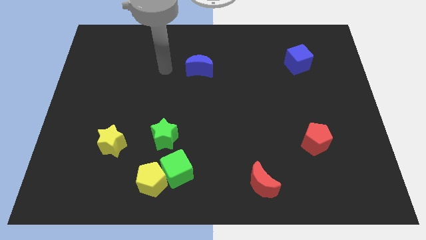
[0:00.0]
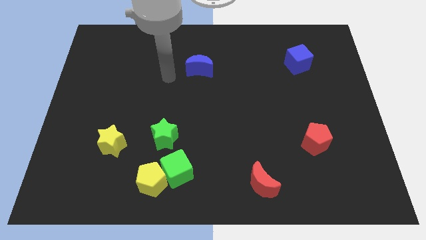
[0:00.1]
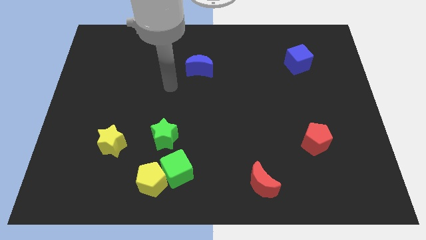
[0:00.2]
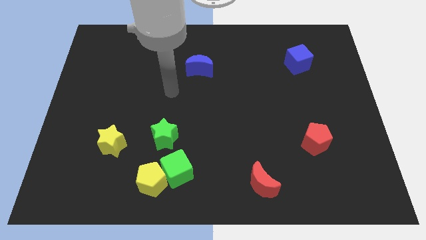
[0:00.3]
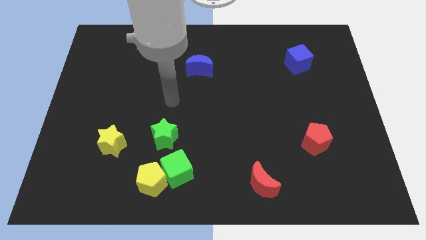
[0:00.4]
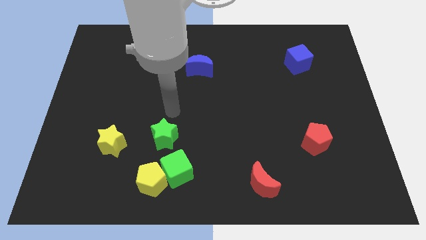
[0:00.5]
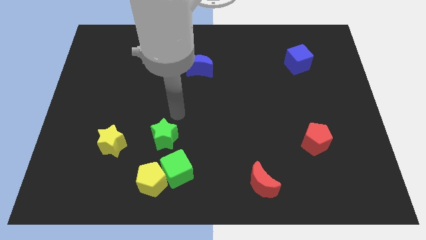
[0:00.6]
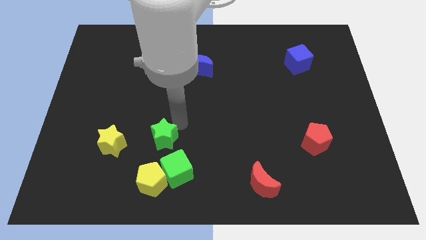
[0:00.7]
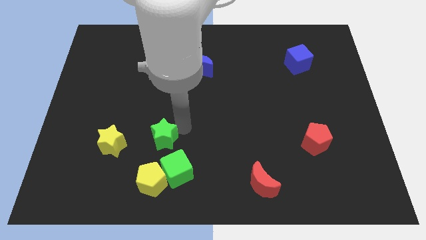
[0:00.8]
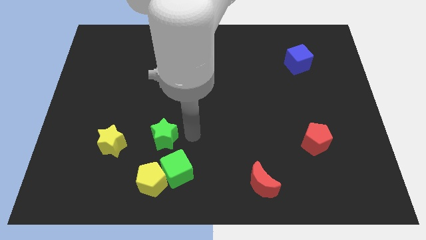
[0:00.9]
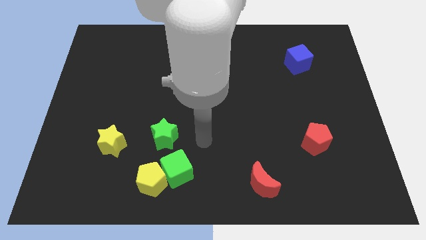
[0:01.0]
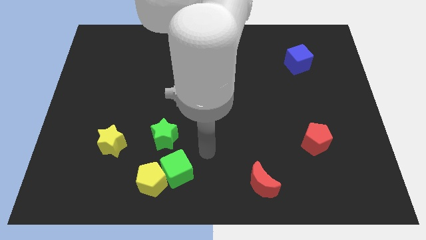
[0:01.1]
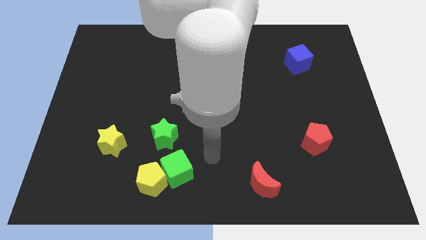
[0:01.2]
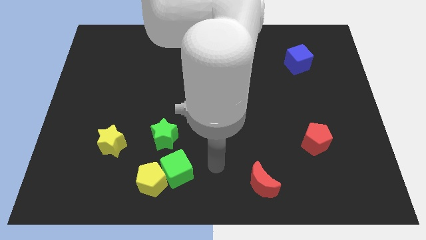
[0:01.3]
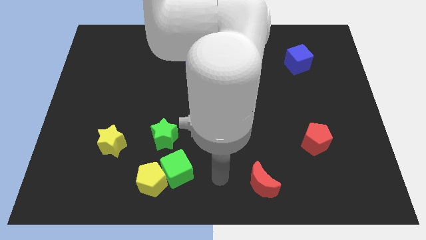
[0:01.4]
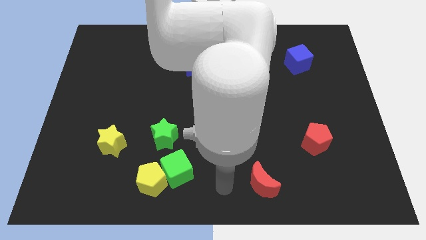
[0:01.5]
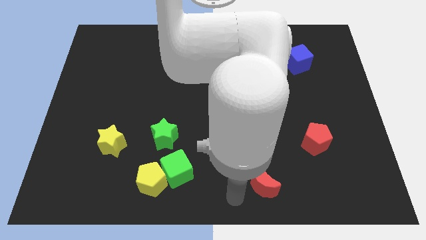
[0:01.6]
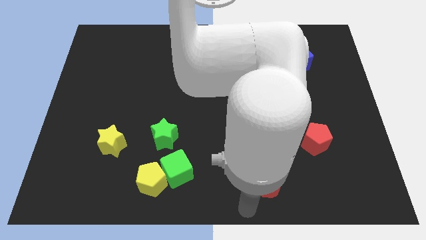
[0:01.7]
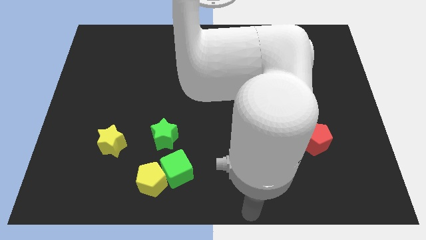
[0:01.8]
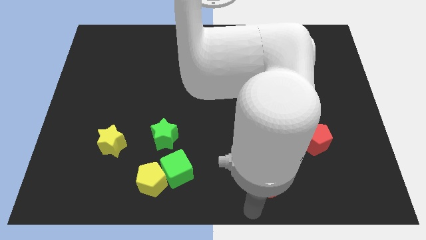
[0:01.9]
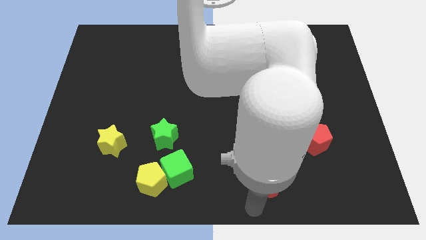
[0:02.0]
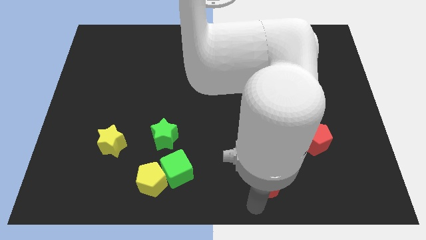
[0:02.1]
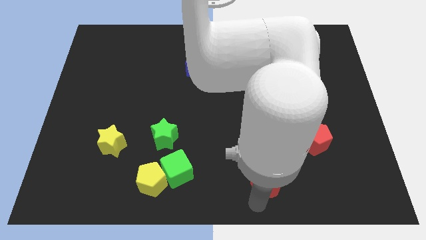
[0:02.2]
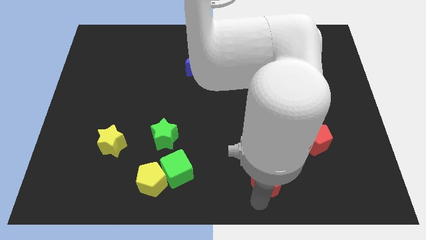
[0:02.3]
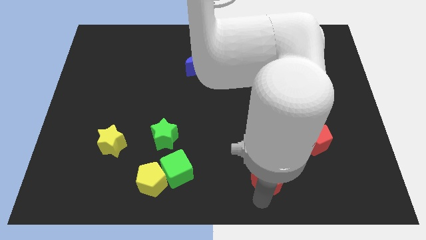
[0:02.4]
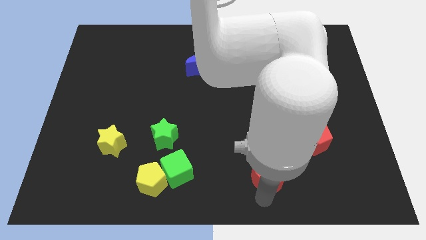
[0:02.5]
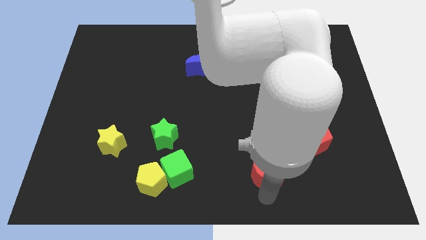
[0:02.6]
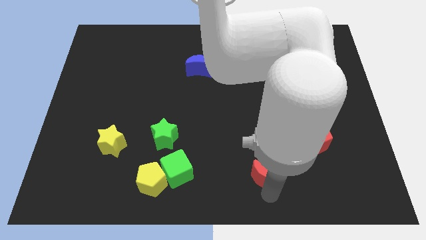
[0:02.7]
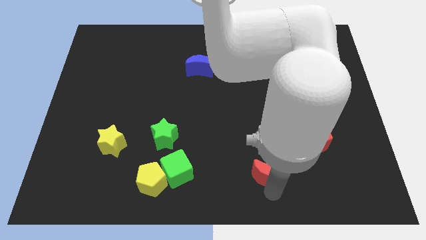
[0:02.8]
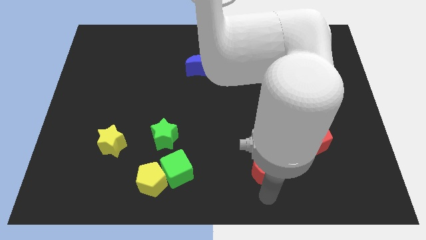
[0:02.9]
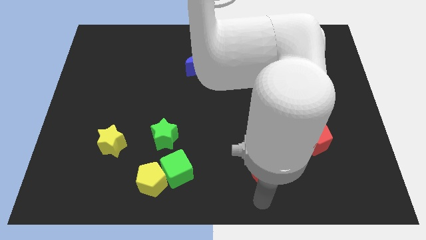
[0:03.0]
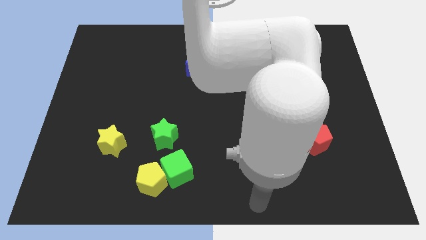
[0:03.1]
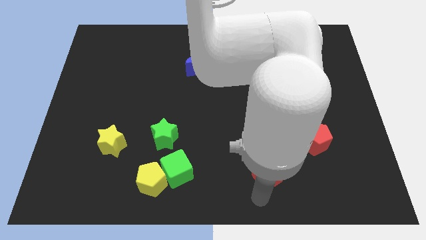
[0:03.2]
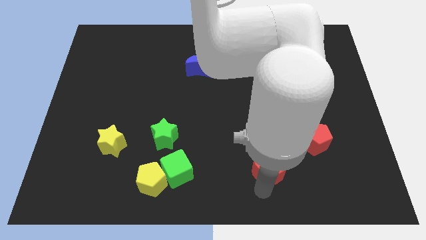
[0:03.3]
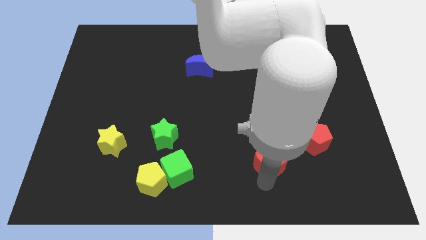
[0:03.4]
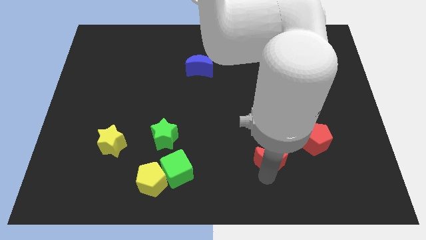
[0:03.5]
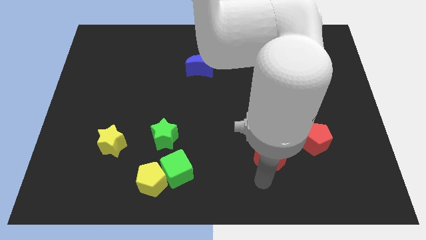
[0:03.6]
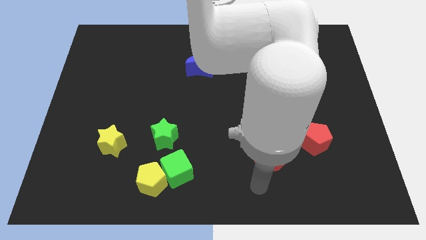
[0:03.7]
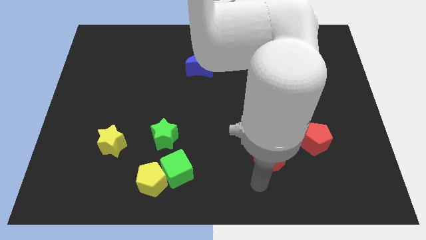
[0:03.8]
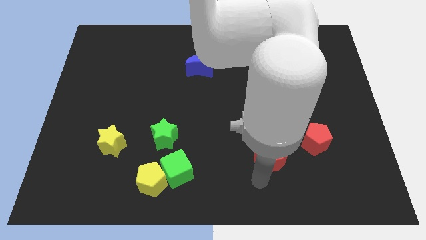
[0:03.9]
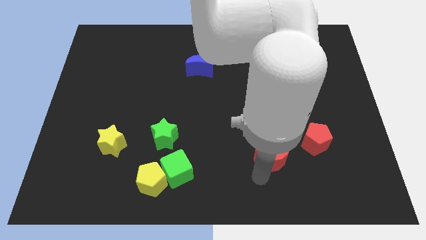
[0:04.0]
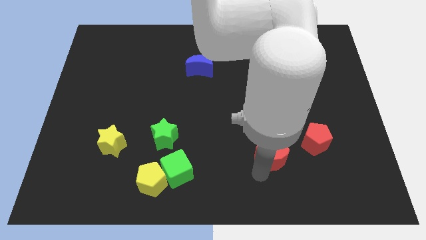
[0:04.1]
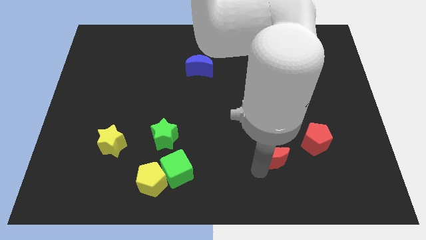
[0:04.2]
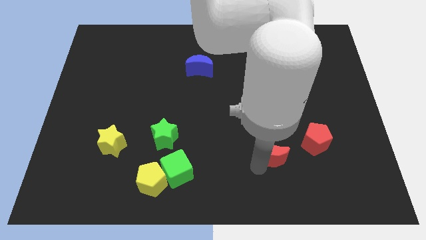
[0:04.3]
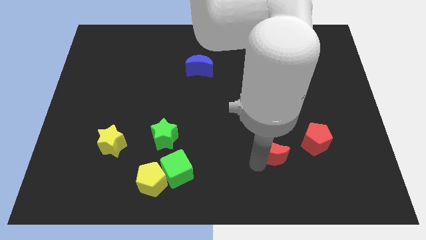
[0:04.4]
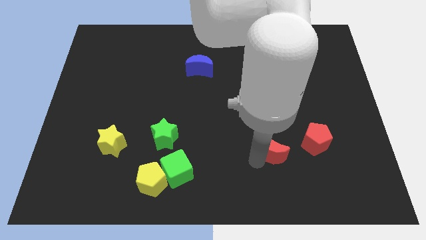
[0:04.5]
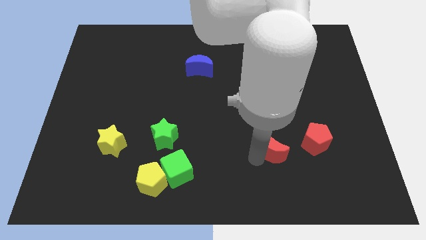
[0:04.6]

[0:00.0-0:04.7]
slightly slide the red moon upwards and right

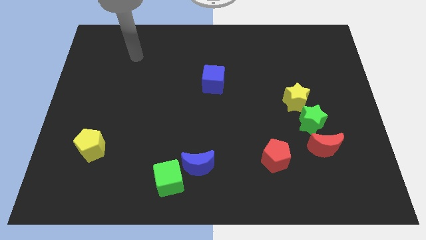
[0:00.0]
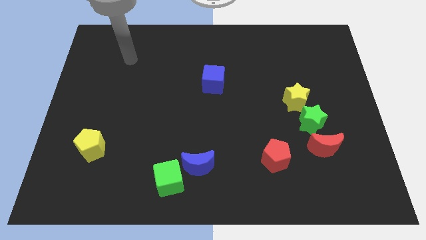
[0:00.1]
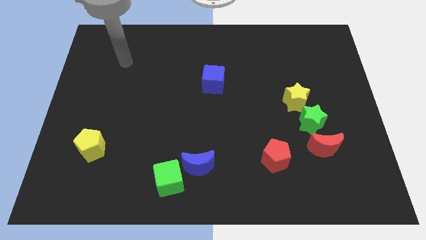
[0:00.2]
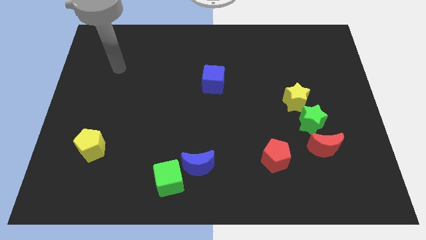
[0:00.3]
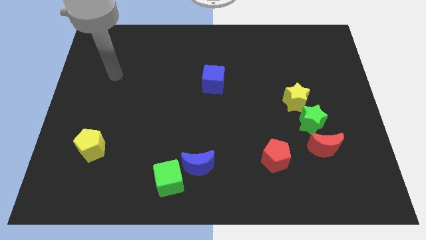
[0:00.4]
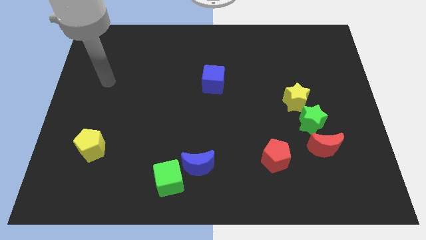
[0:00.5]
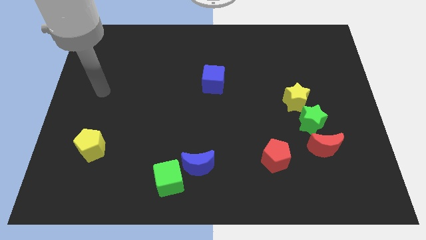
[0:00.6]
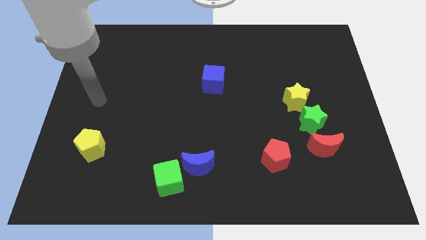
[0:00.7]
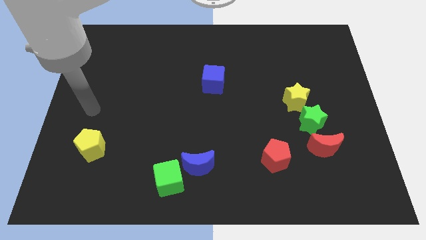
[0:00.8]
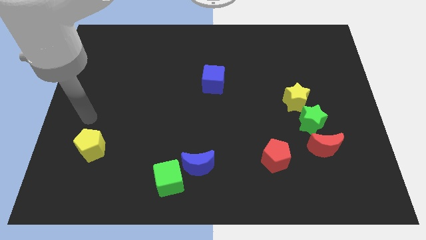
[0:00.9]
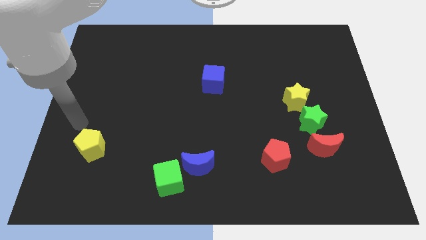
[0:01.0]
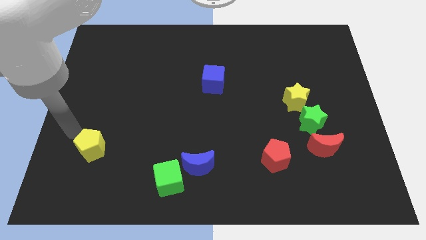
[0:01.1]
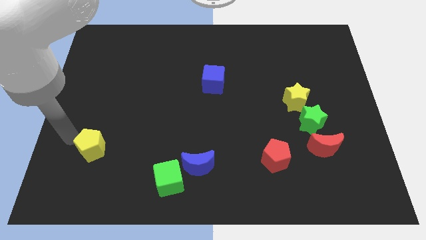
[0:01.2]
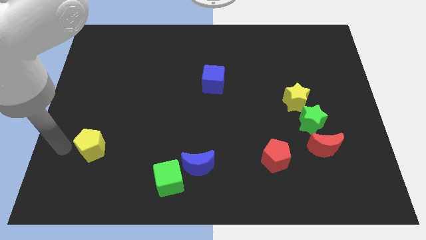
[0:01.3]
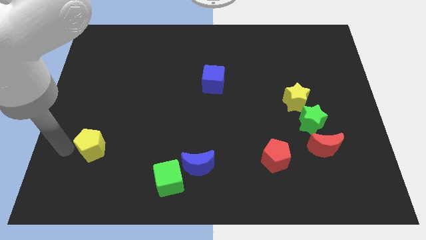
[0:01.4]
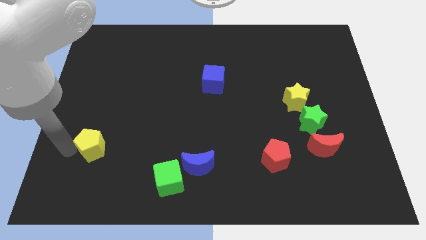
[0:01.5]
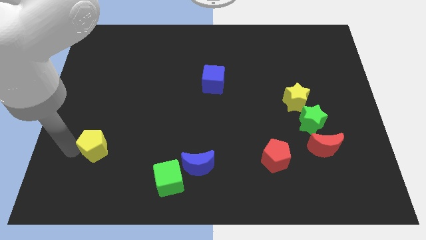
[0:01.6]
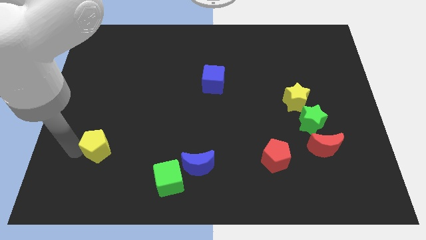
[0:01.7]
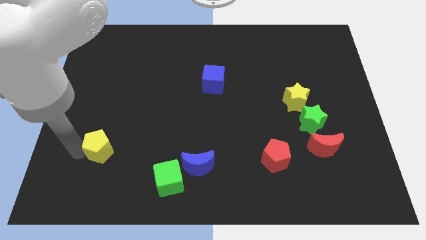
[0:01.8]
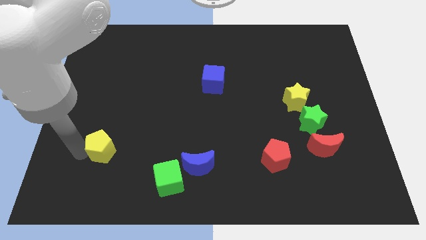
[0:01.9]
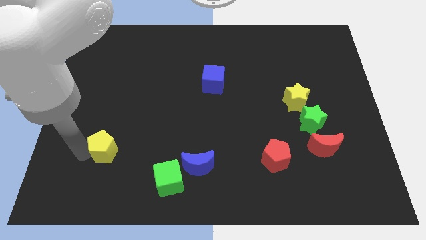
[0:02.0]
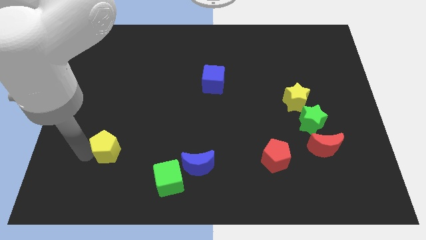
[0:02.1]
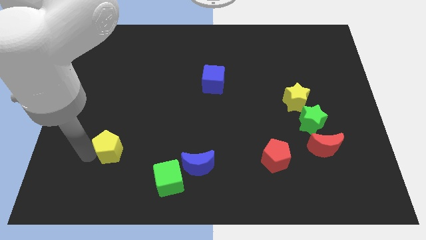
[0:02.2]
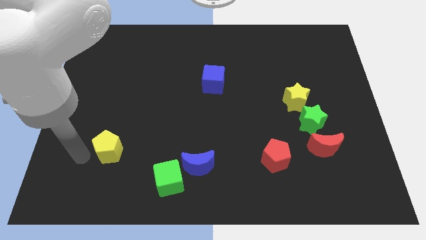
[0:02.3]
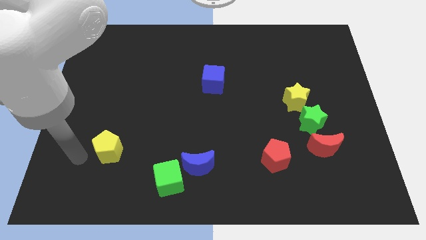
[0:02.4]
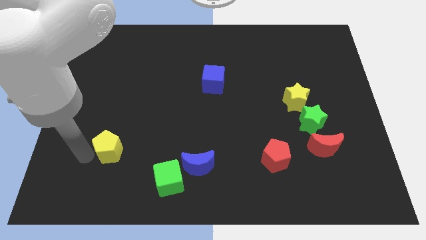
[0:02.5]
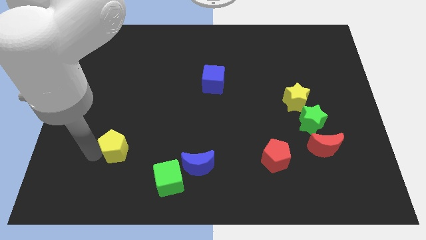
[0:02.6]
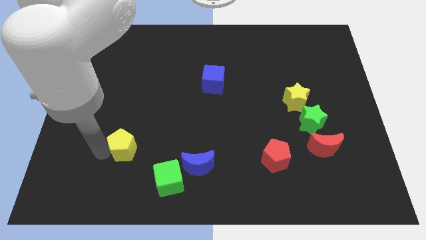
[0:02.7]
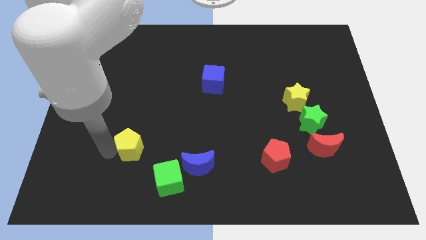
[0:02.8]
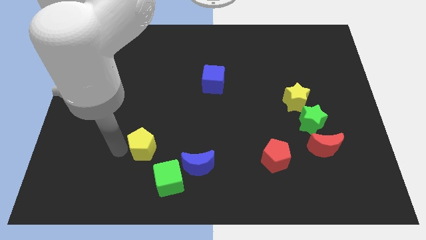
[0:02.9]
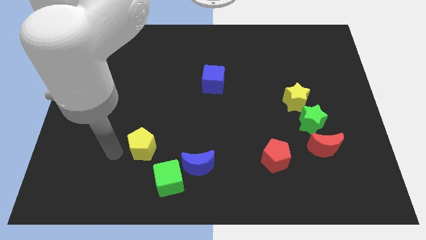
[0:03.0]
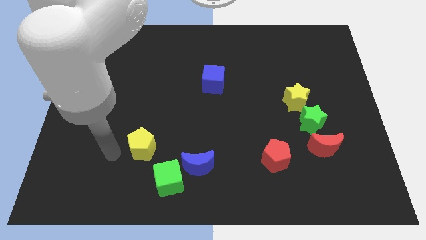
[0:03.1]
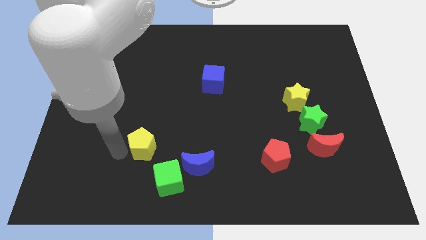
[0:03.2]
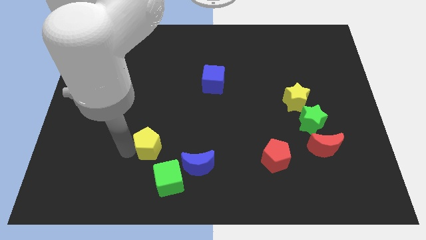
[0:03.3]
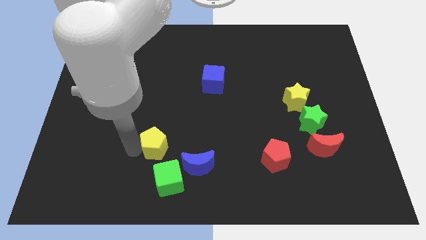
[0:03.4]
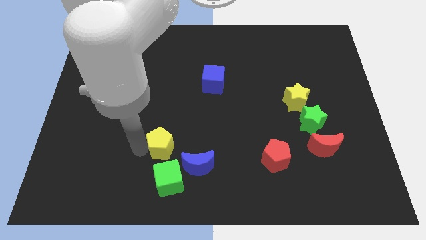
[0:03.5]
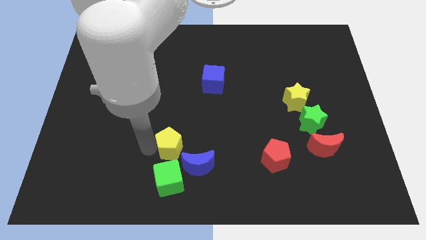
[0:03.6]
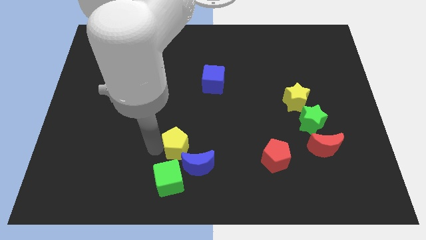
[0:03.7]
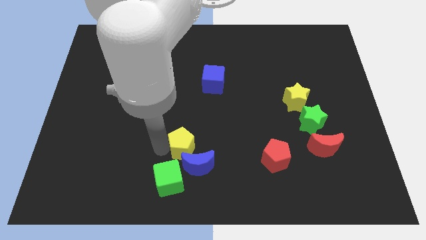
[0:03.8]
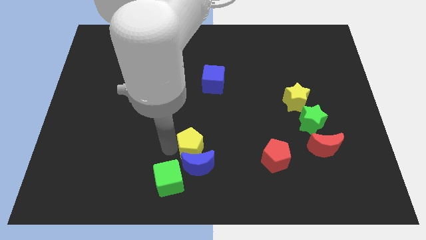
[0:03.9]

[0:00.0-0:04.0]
move the yellow pentagon right
